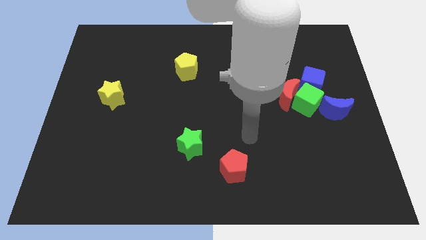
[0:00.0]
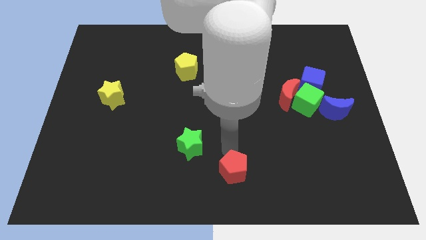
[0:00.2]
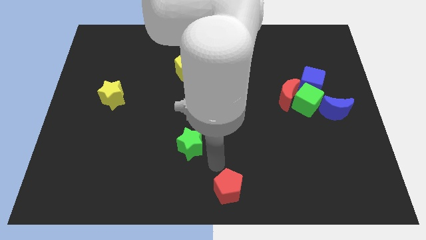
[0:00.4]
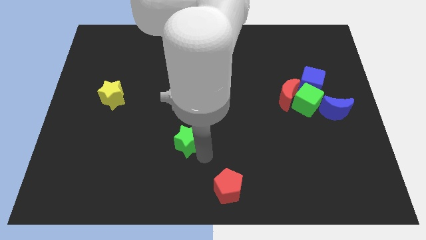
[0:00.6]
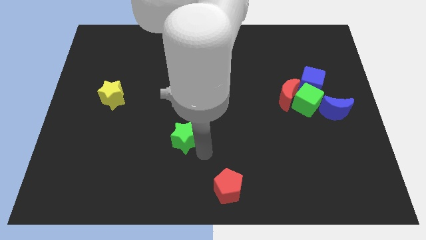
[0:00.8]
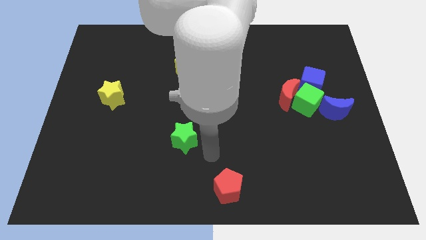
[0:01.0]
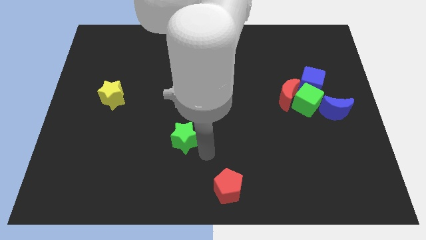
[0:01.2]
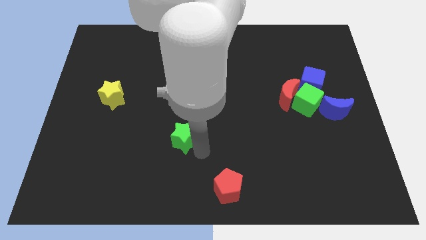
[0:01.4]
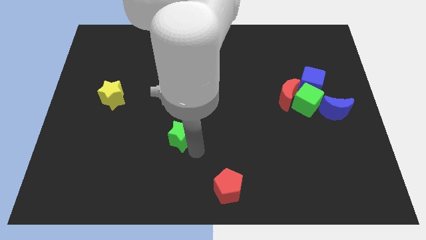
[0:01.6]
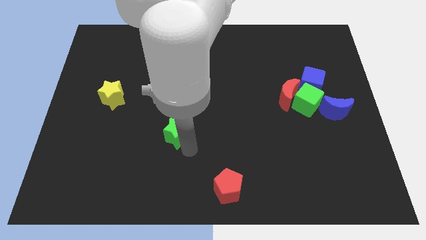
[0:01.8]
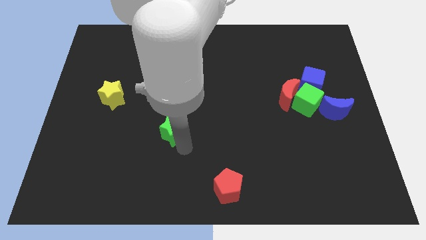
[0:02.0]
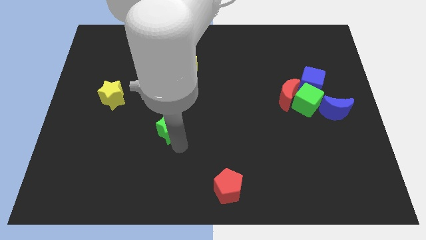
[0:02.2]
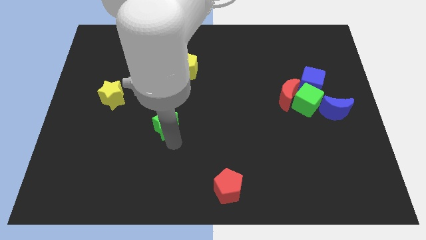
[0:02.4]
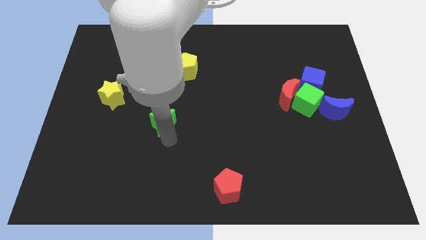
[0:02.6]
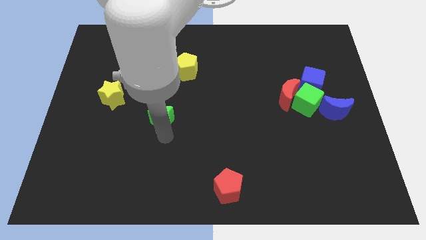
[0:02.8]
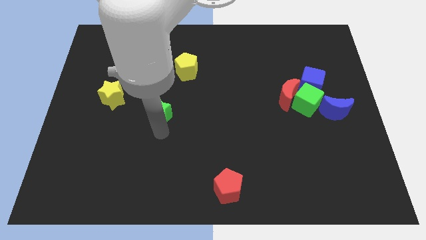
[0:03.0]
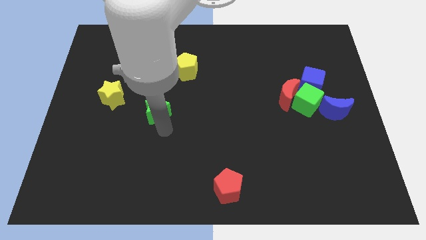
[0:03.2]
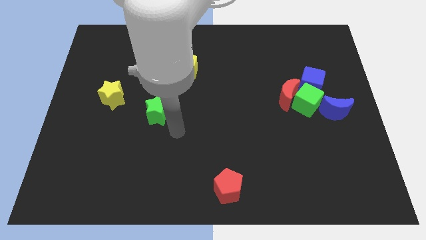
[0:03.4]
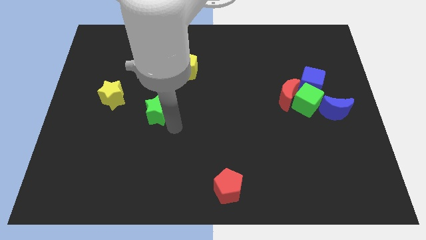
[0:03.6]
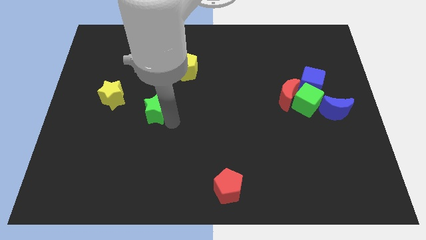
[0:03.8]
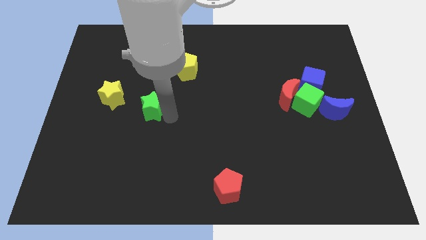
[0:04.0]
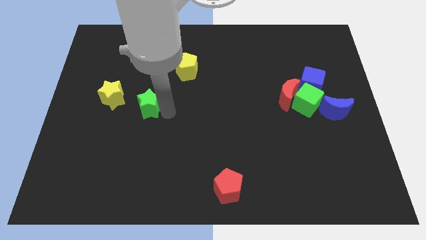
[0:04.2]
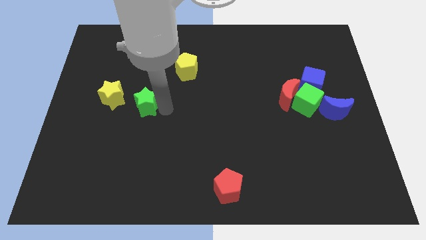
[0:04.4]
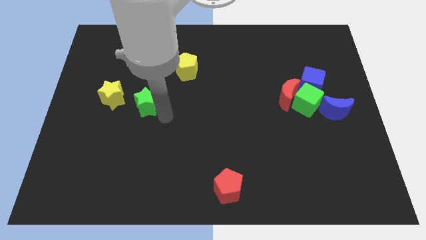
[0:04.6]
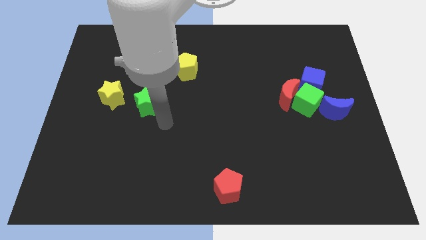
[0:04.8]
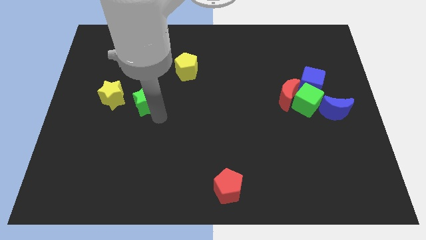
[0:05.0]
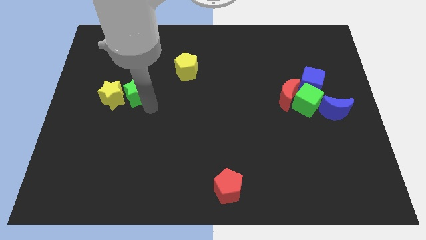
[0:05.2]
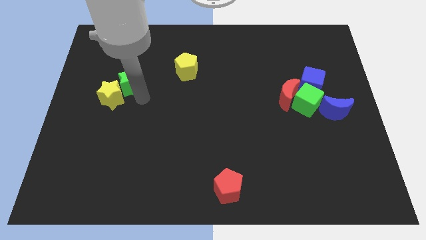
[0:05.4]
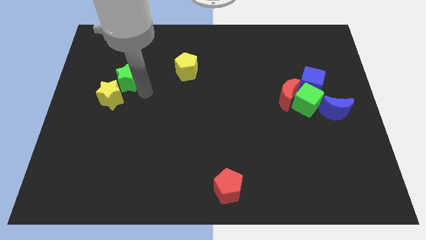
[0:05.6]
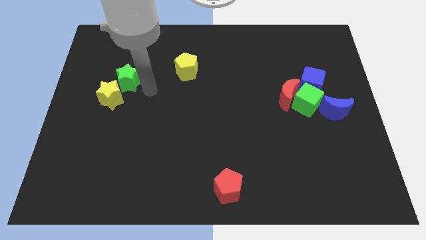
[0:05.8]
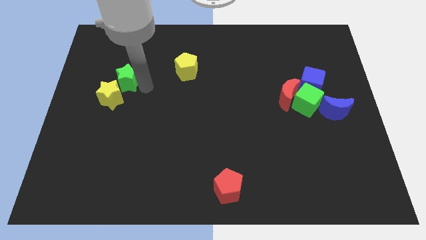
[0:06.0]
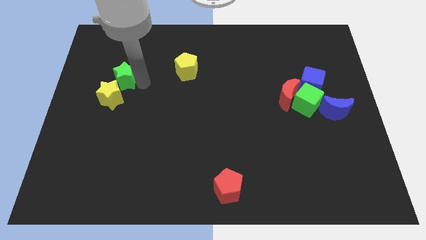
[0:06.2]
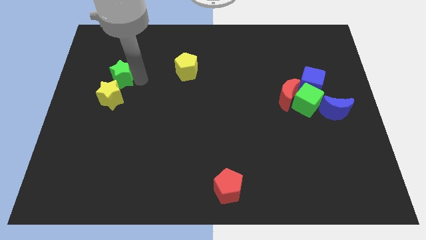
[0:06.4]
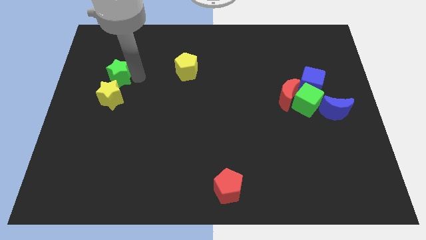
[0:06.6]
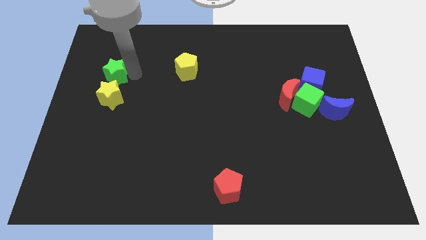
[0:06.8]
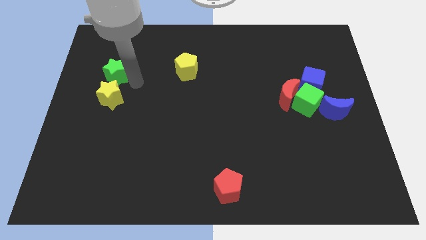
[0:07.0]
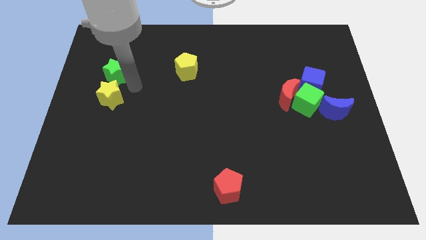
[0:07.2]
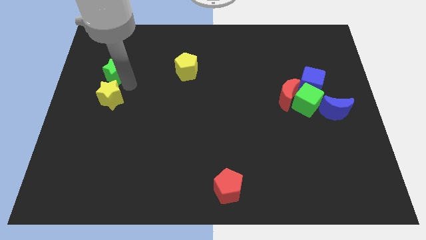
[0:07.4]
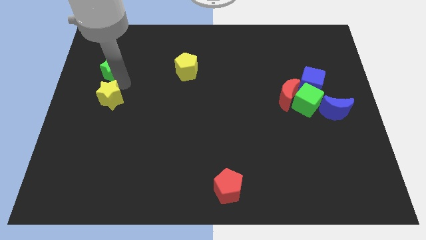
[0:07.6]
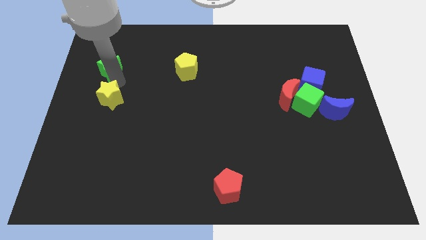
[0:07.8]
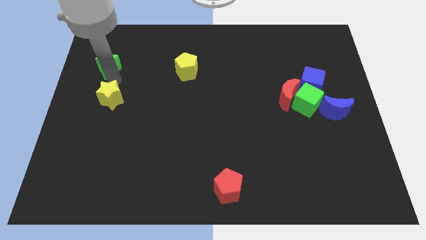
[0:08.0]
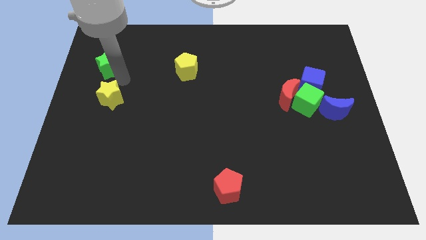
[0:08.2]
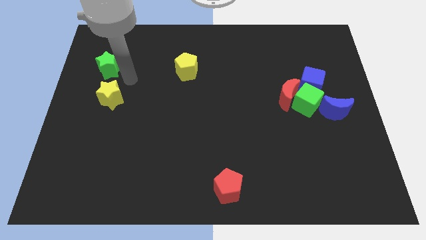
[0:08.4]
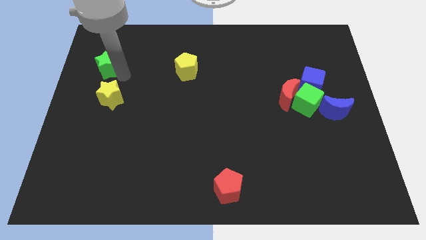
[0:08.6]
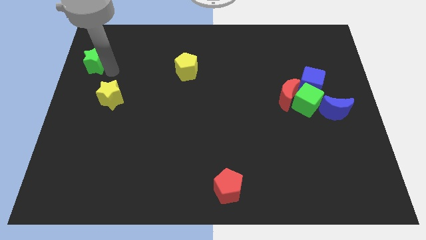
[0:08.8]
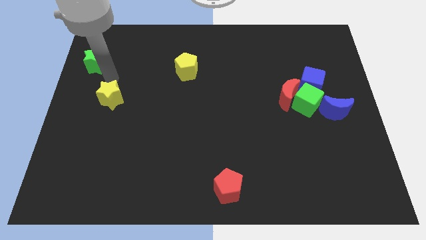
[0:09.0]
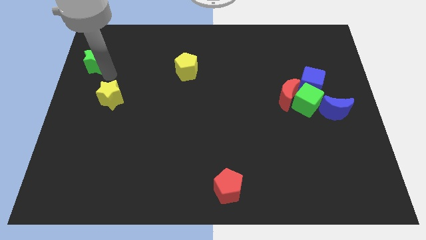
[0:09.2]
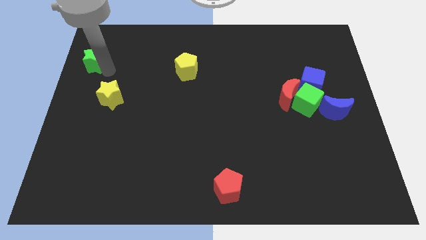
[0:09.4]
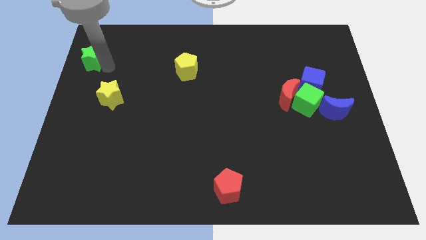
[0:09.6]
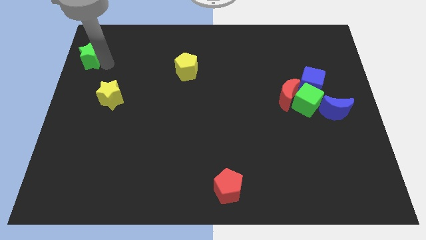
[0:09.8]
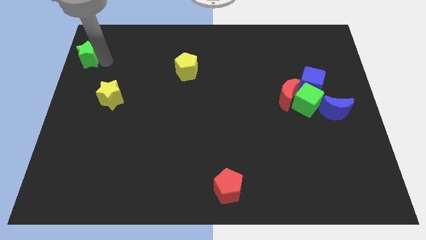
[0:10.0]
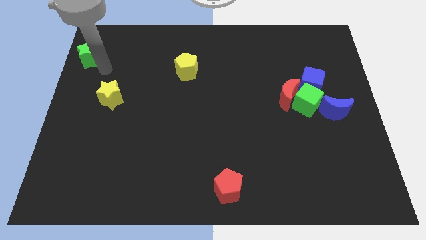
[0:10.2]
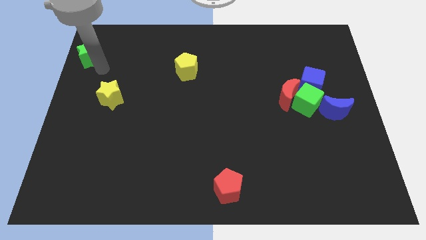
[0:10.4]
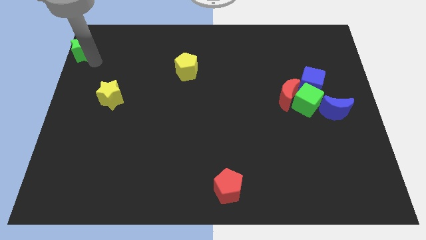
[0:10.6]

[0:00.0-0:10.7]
put the green star to the upper left corner

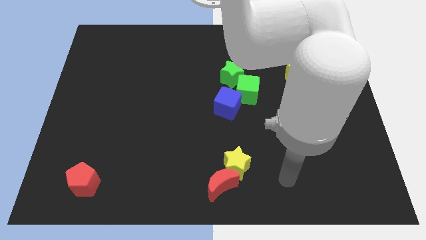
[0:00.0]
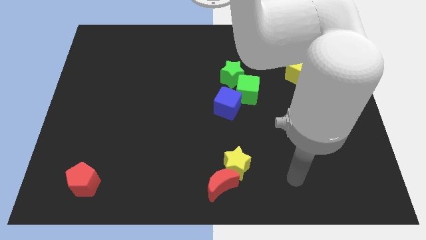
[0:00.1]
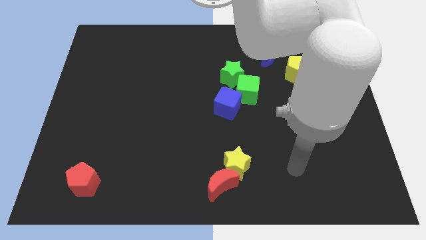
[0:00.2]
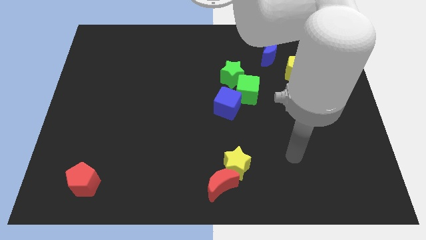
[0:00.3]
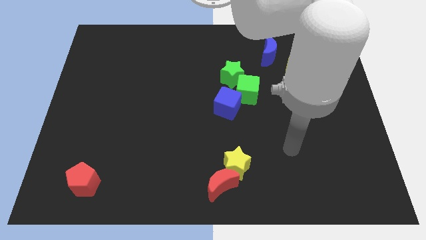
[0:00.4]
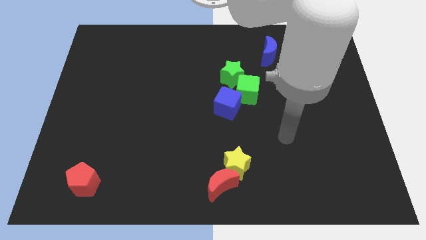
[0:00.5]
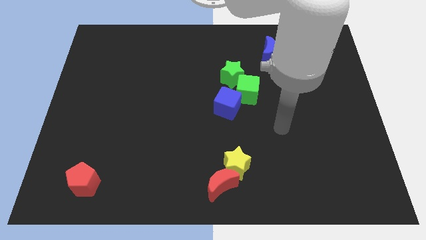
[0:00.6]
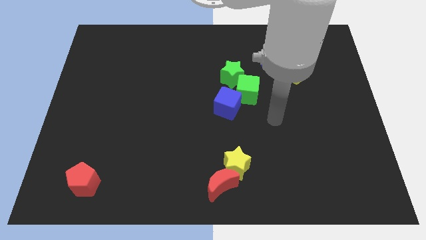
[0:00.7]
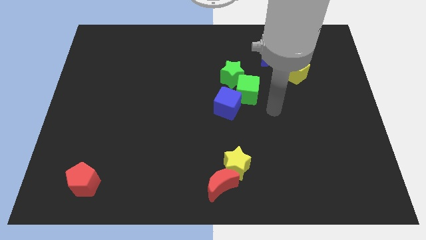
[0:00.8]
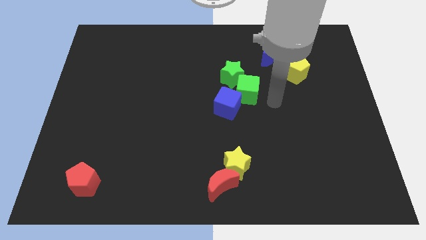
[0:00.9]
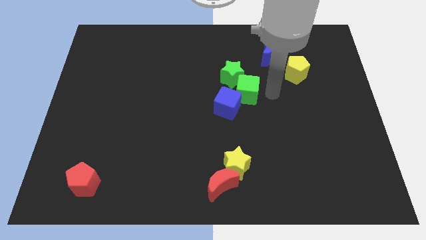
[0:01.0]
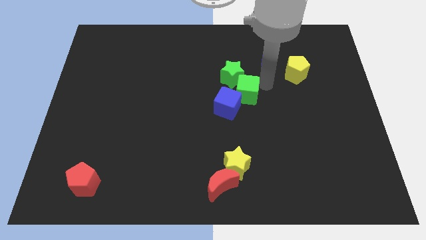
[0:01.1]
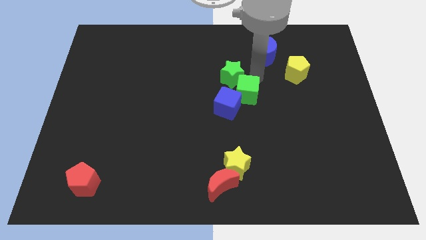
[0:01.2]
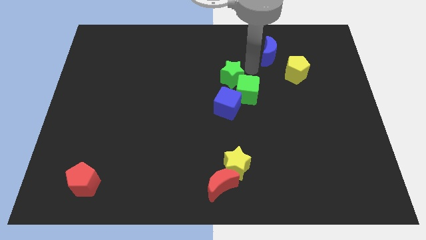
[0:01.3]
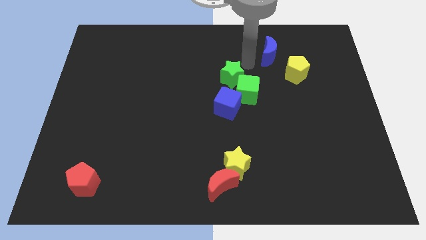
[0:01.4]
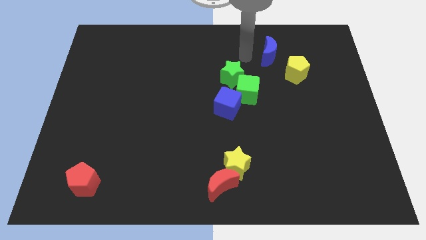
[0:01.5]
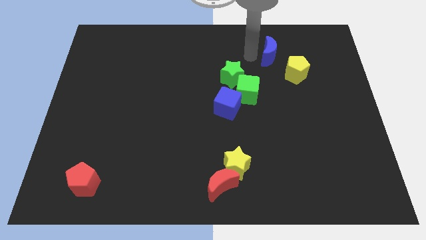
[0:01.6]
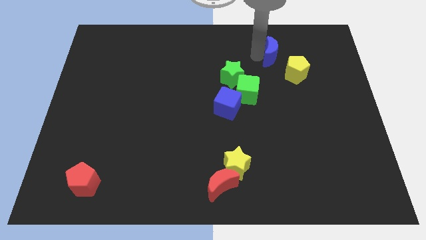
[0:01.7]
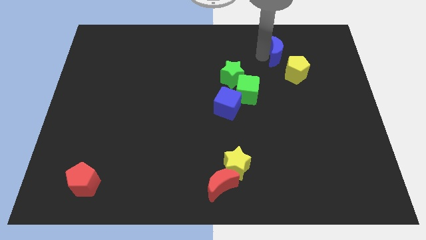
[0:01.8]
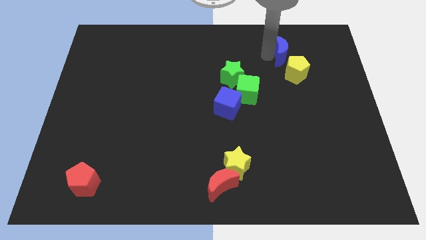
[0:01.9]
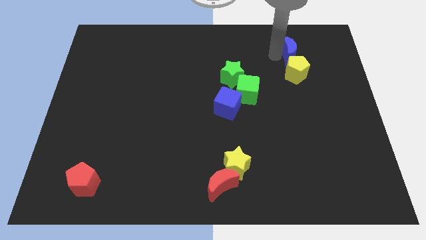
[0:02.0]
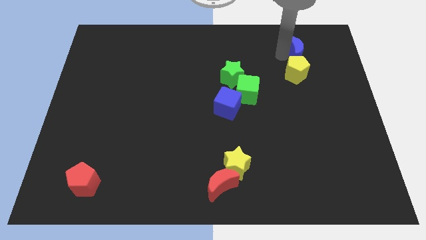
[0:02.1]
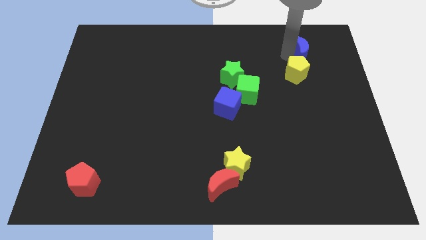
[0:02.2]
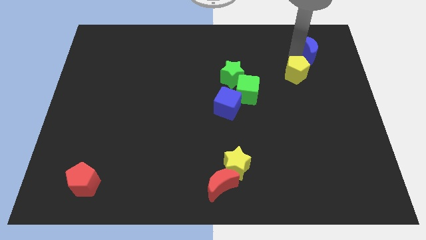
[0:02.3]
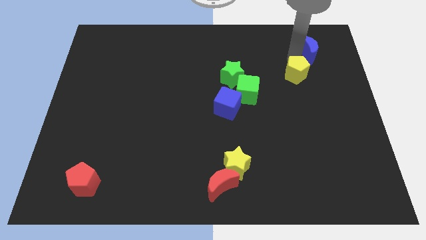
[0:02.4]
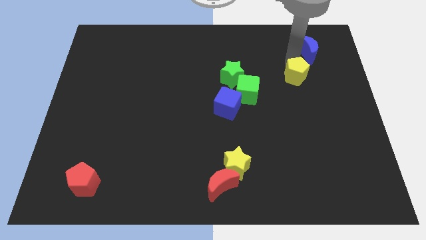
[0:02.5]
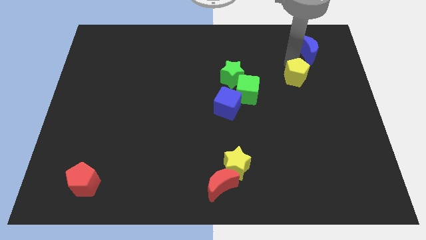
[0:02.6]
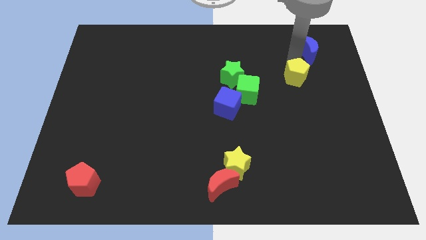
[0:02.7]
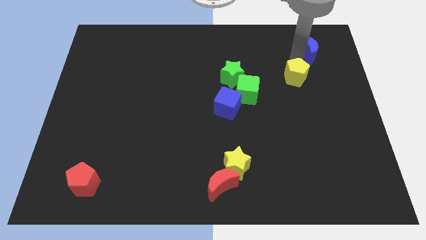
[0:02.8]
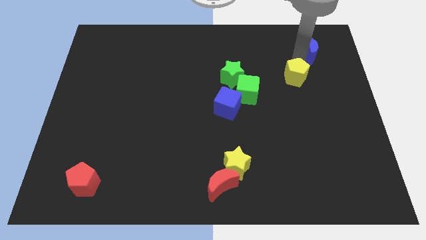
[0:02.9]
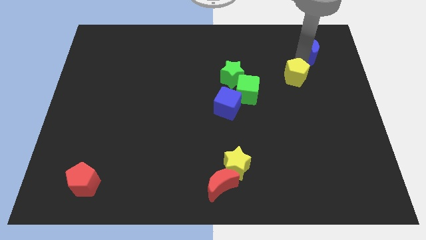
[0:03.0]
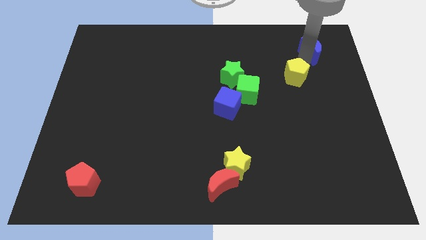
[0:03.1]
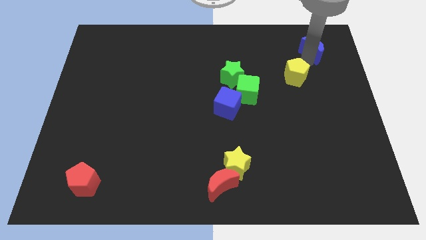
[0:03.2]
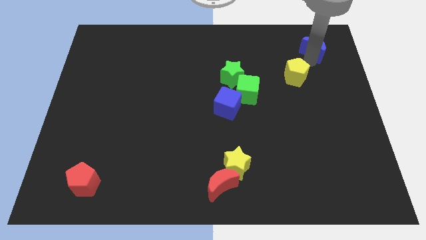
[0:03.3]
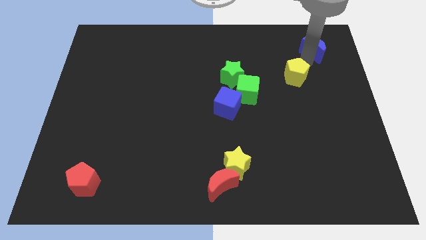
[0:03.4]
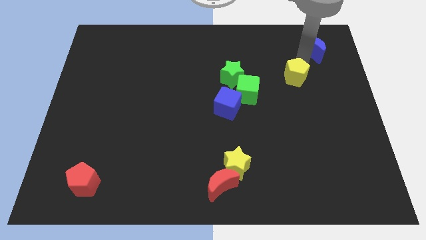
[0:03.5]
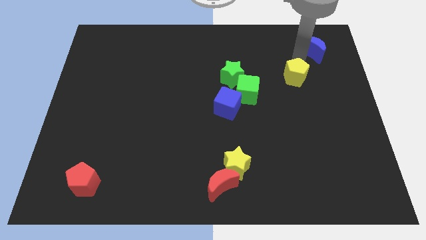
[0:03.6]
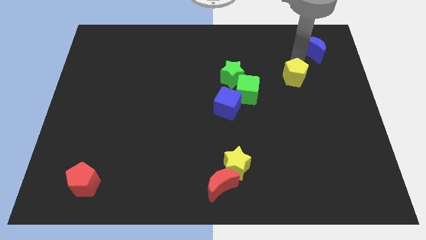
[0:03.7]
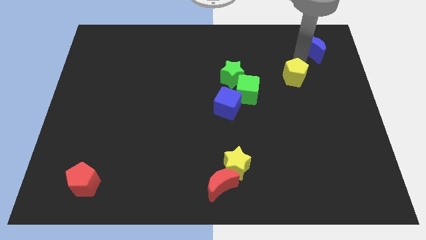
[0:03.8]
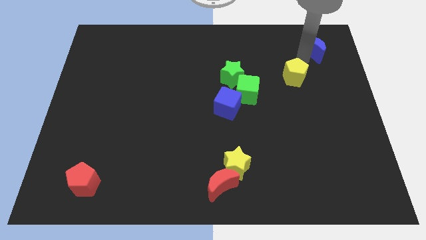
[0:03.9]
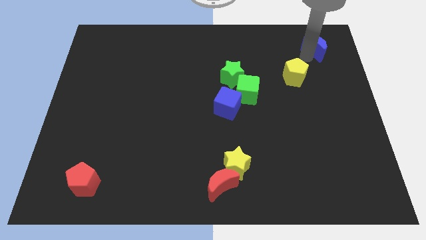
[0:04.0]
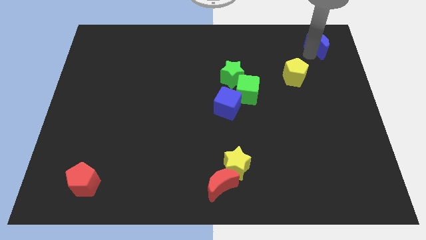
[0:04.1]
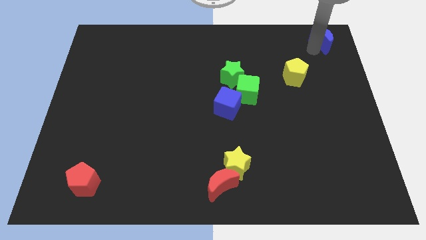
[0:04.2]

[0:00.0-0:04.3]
move the blue moon to the top right corner
